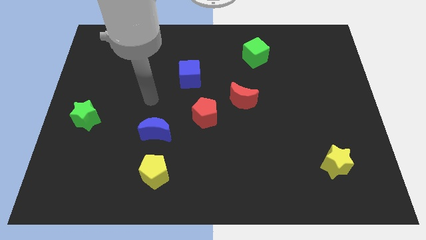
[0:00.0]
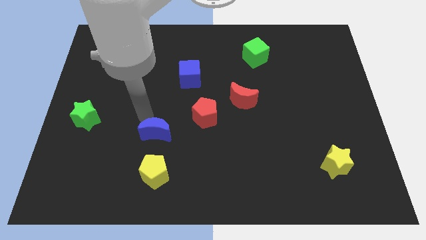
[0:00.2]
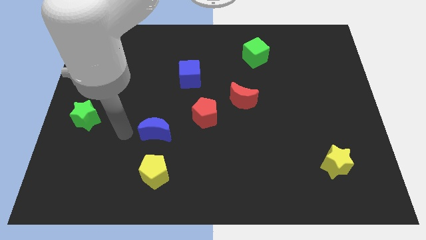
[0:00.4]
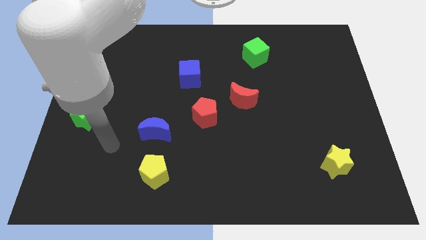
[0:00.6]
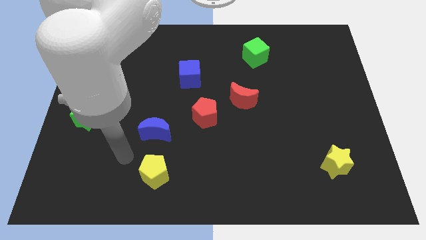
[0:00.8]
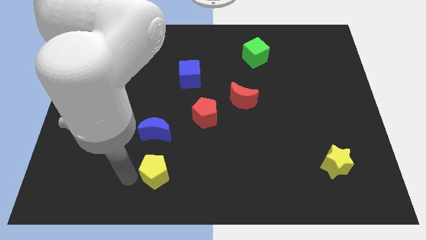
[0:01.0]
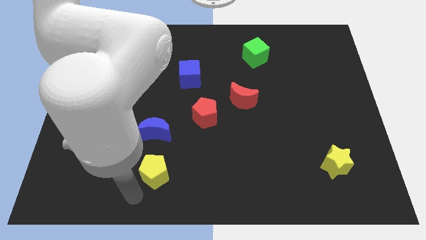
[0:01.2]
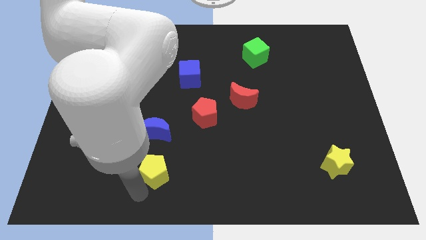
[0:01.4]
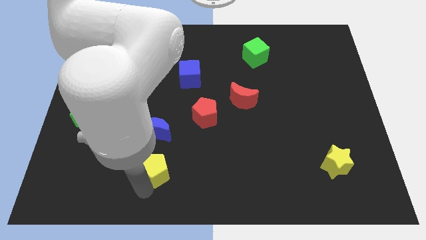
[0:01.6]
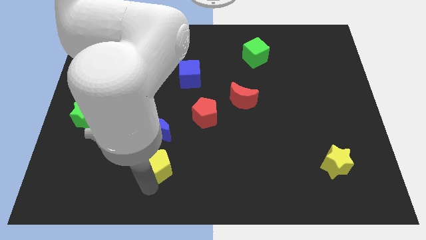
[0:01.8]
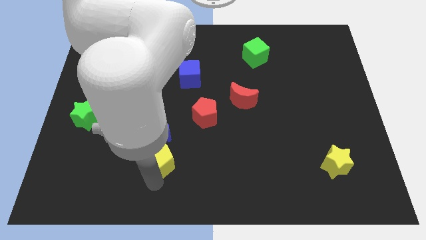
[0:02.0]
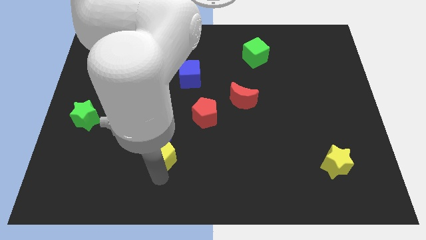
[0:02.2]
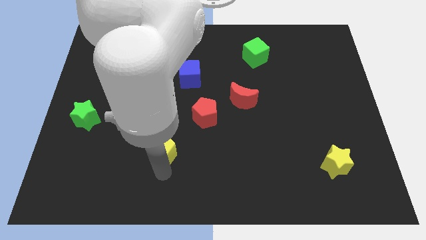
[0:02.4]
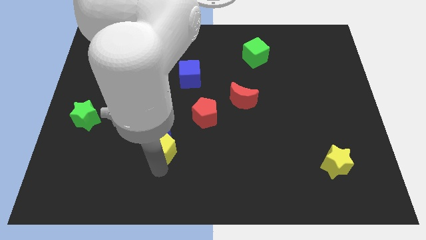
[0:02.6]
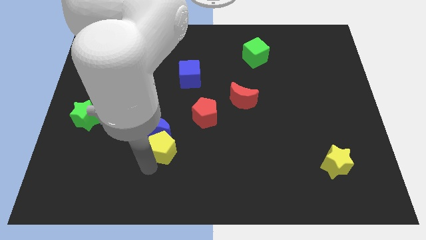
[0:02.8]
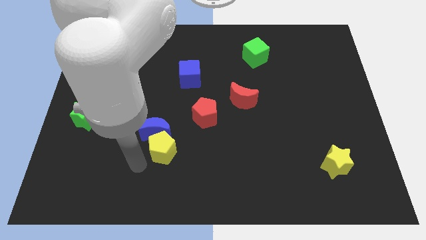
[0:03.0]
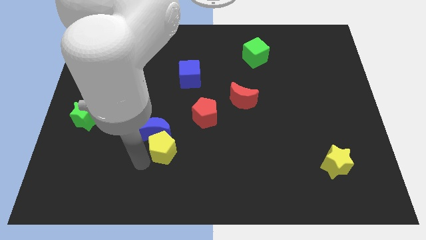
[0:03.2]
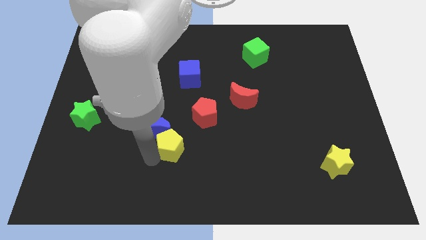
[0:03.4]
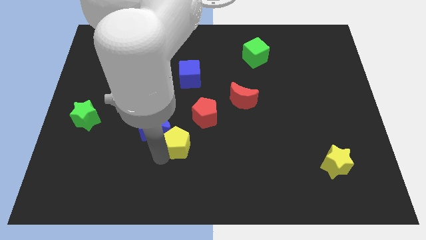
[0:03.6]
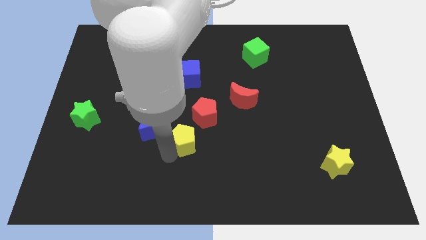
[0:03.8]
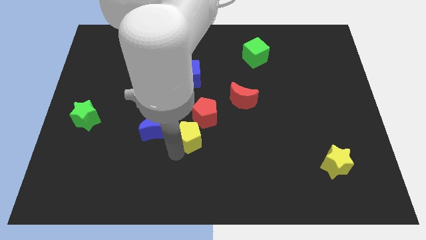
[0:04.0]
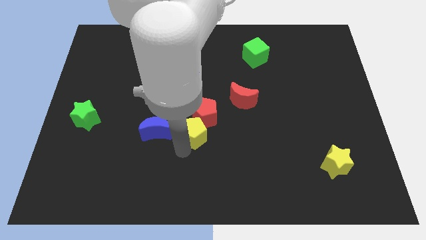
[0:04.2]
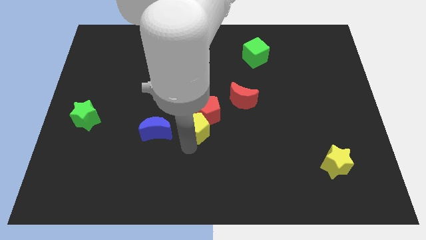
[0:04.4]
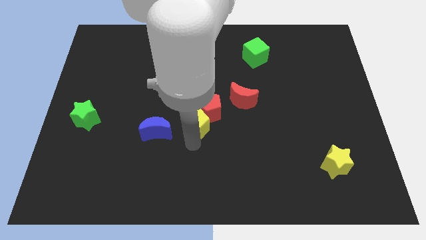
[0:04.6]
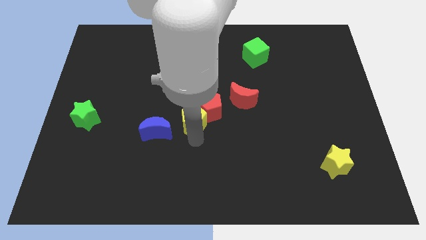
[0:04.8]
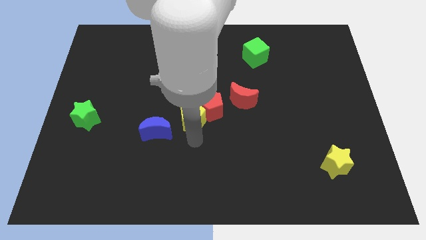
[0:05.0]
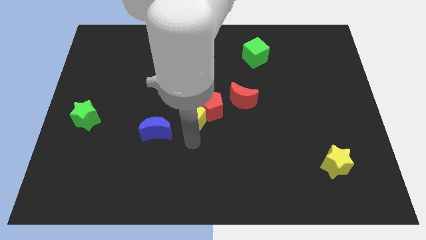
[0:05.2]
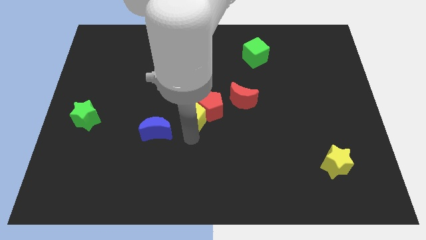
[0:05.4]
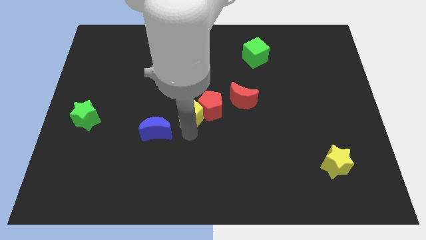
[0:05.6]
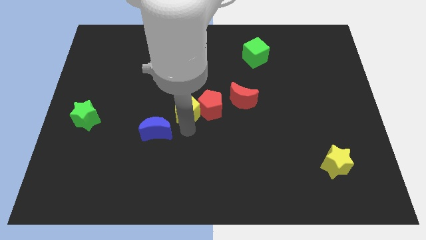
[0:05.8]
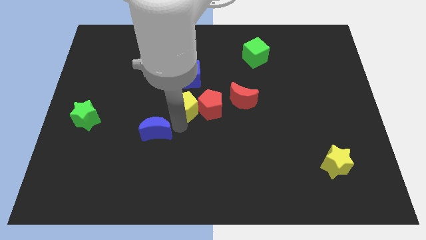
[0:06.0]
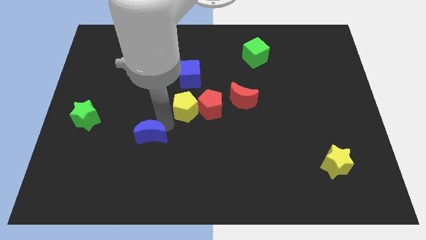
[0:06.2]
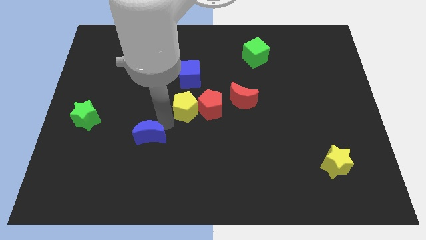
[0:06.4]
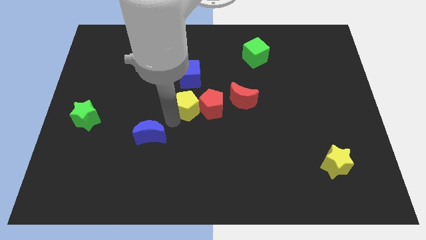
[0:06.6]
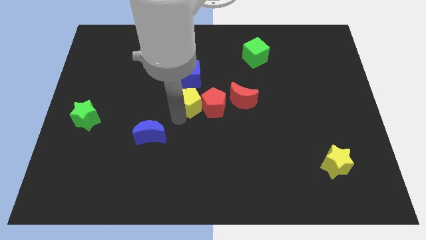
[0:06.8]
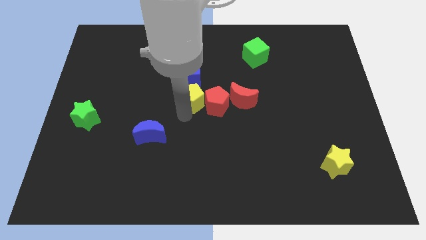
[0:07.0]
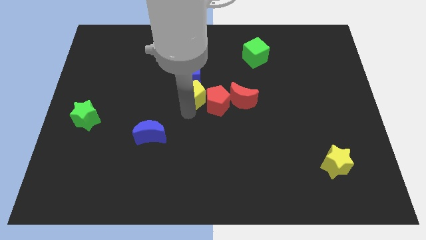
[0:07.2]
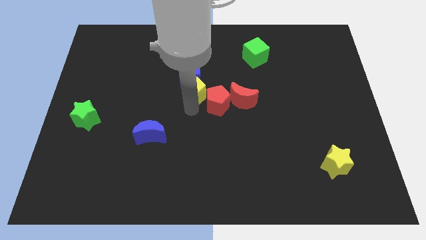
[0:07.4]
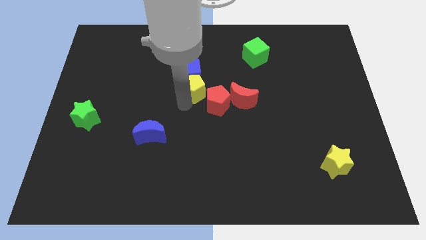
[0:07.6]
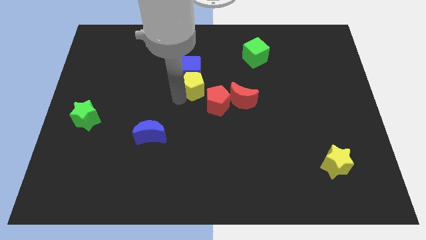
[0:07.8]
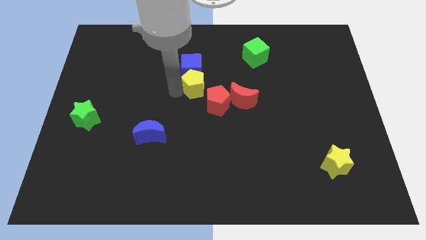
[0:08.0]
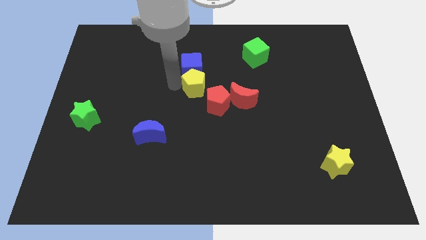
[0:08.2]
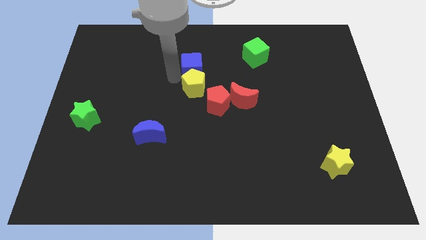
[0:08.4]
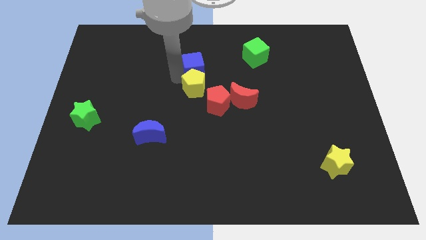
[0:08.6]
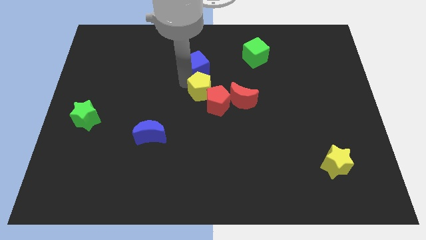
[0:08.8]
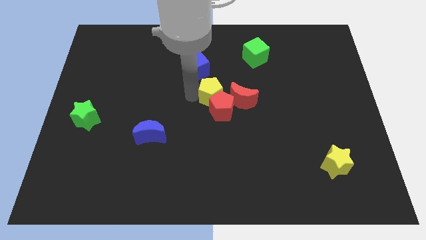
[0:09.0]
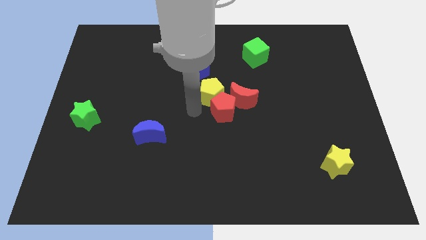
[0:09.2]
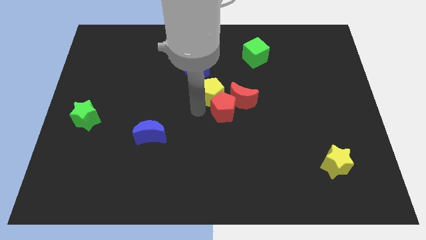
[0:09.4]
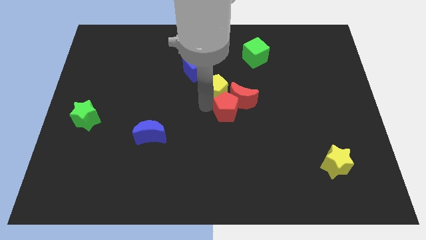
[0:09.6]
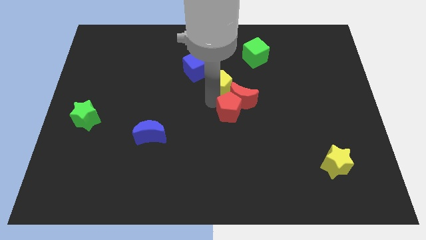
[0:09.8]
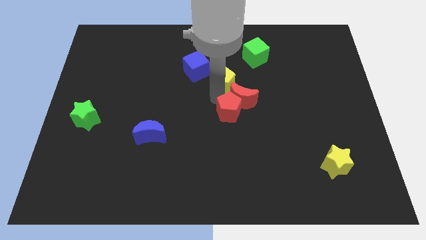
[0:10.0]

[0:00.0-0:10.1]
push the yellow pentagon to the right of the blue cube

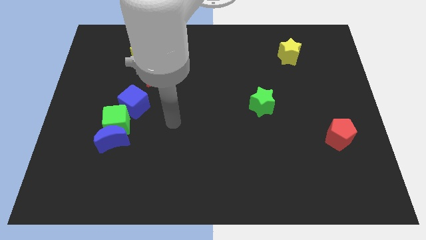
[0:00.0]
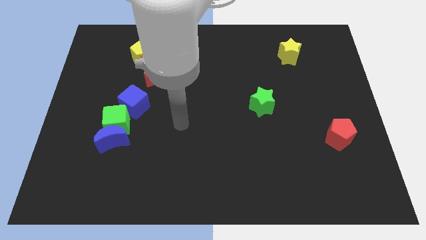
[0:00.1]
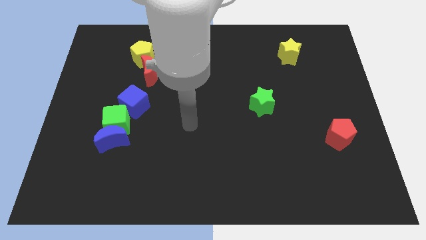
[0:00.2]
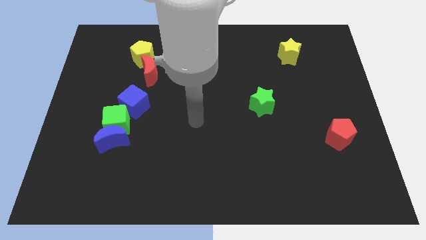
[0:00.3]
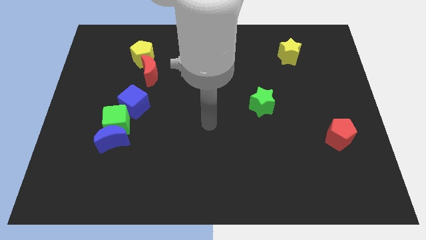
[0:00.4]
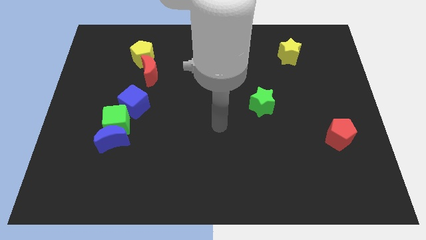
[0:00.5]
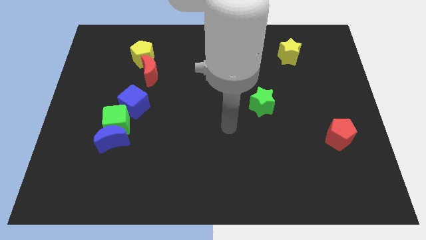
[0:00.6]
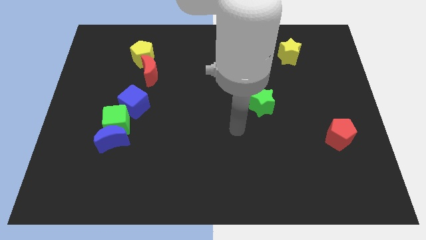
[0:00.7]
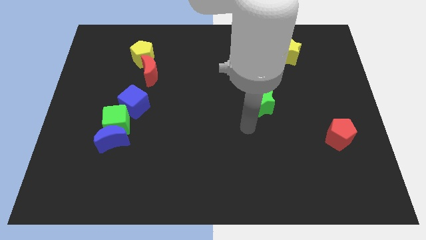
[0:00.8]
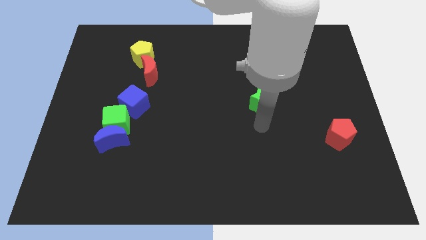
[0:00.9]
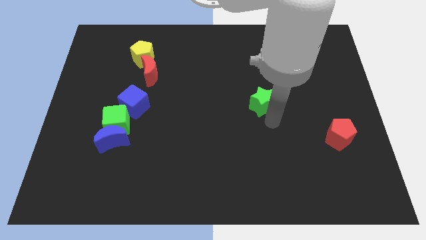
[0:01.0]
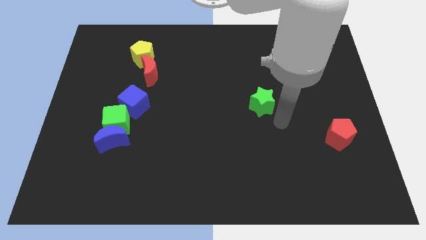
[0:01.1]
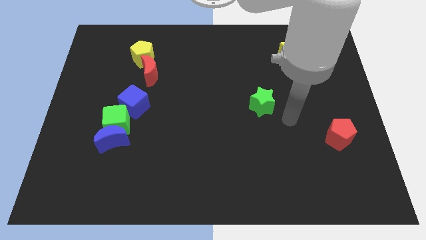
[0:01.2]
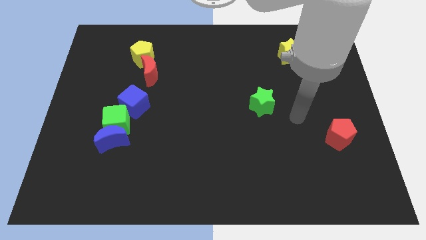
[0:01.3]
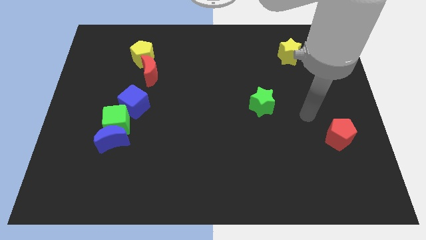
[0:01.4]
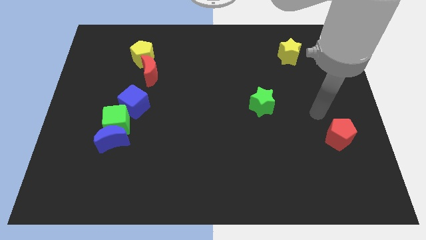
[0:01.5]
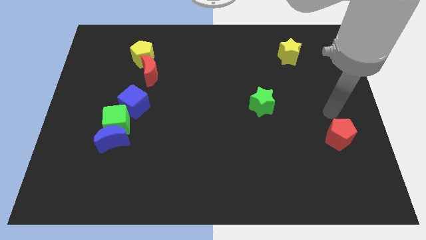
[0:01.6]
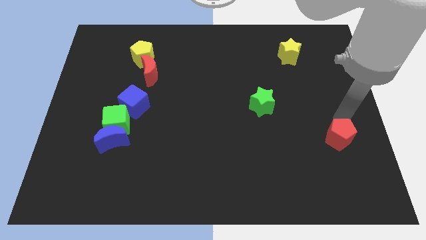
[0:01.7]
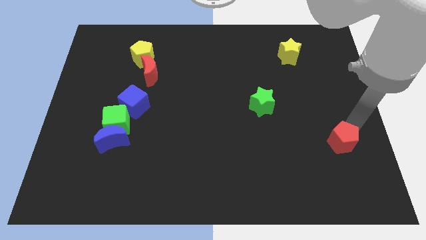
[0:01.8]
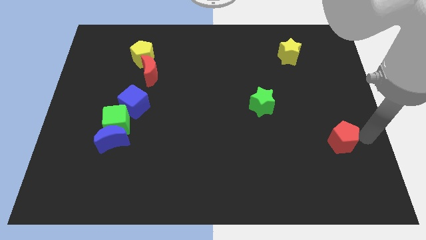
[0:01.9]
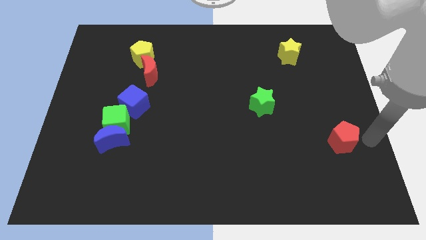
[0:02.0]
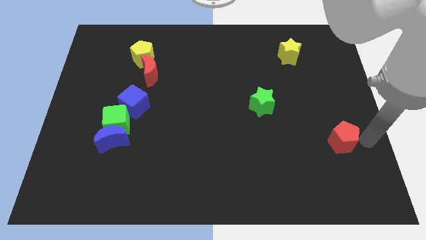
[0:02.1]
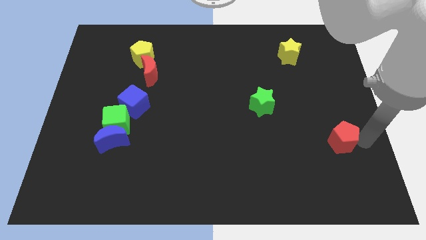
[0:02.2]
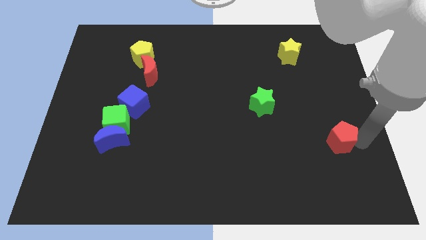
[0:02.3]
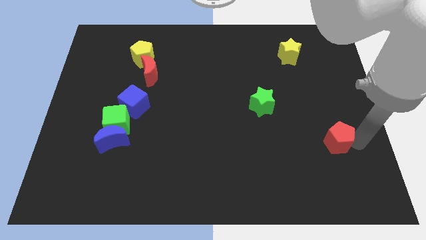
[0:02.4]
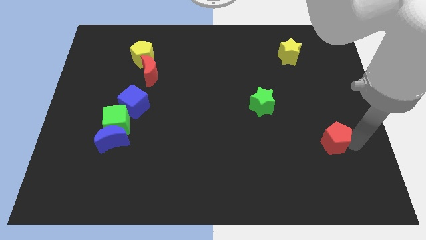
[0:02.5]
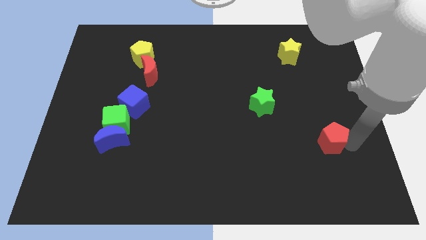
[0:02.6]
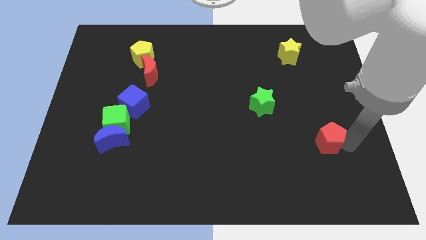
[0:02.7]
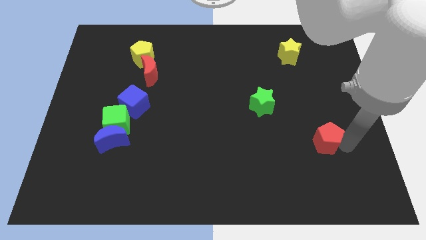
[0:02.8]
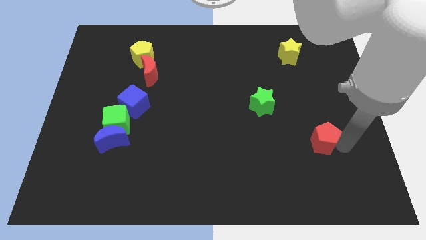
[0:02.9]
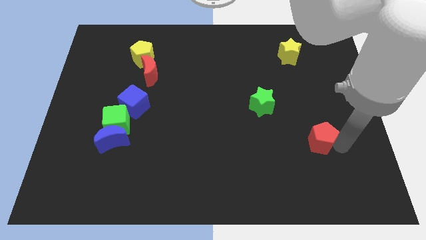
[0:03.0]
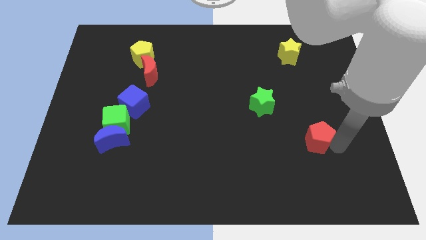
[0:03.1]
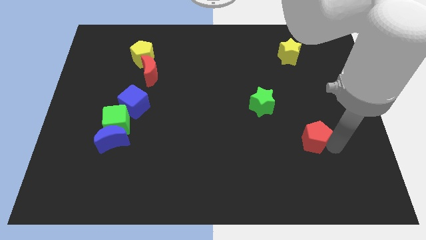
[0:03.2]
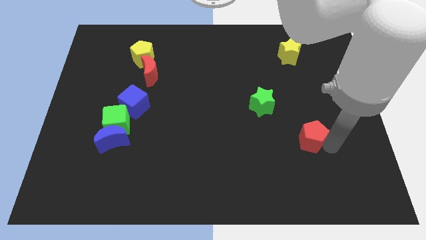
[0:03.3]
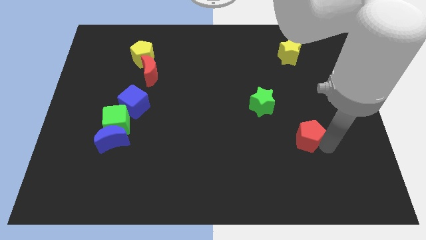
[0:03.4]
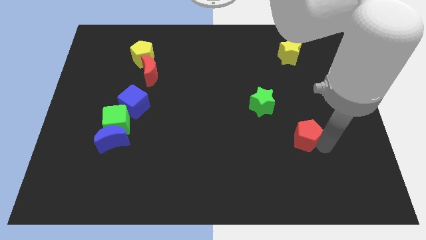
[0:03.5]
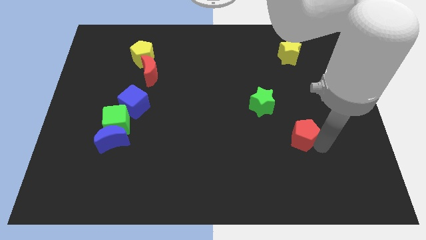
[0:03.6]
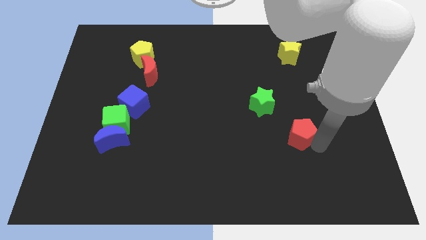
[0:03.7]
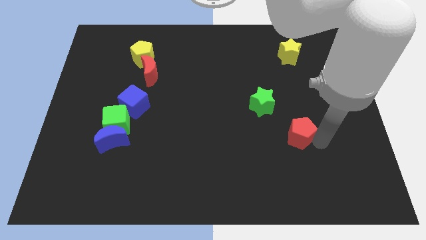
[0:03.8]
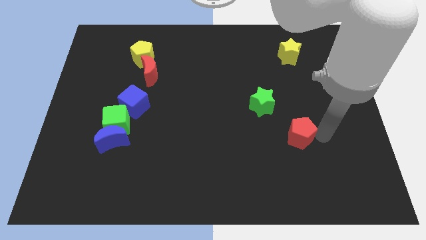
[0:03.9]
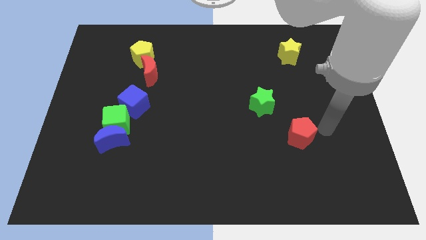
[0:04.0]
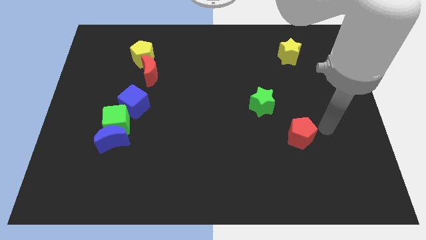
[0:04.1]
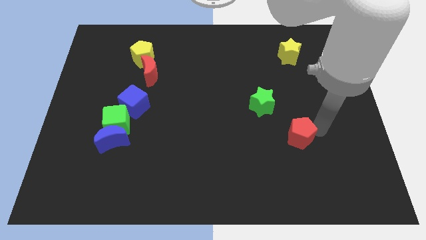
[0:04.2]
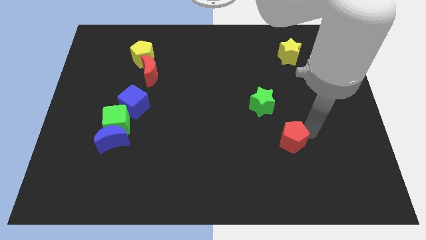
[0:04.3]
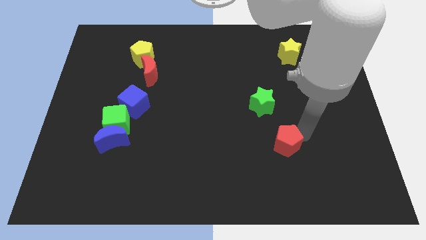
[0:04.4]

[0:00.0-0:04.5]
slide the red pentagon to the bottom of the green star
